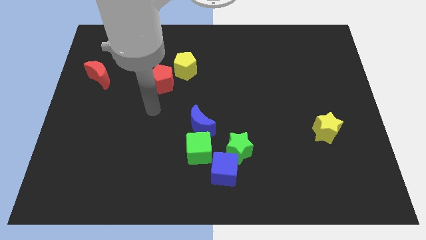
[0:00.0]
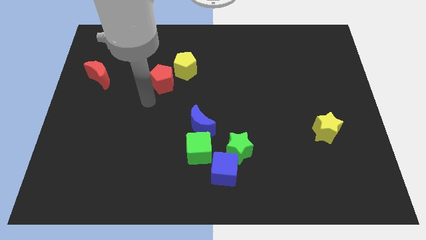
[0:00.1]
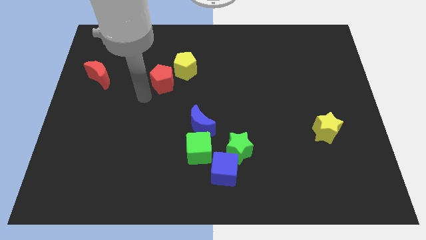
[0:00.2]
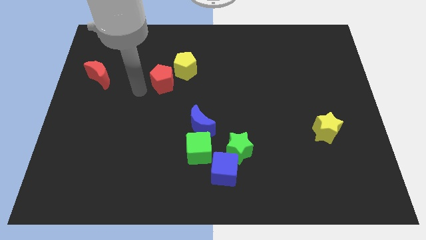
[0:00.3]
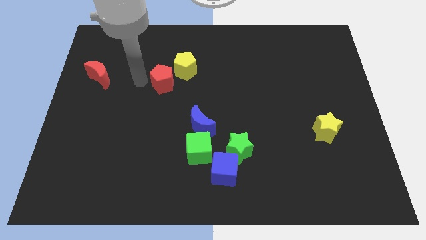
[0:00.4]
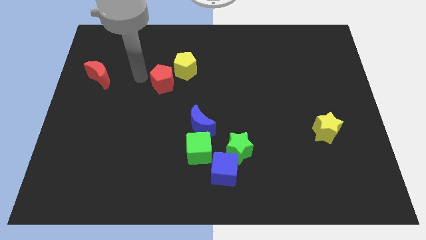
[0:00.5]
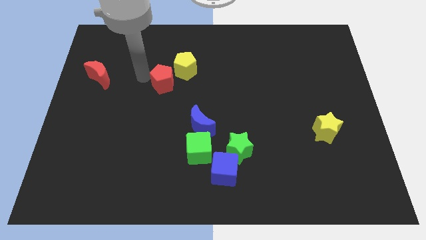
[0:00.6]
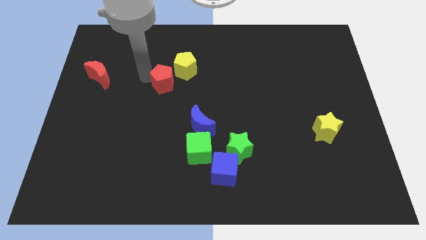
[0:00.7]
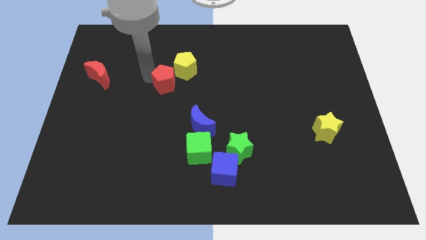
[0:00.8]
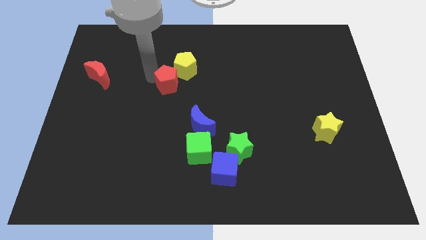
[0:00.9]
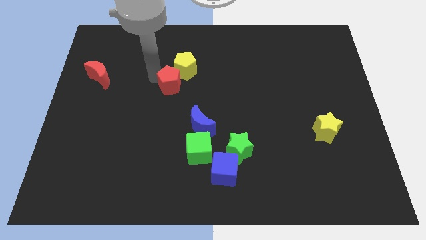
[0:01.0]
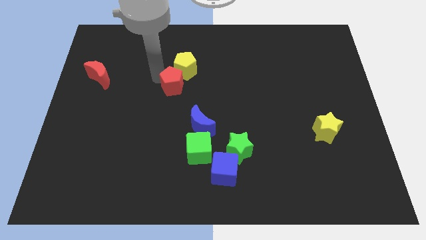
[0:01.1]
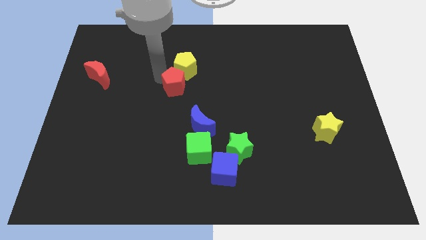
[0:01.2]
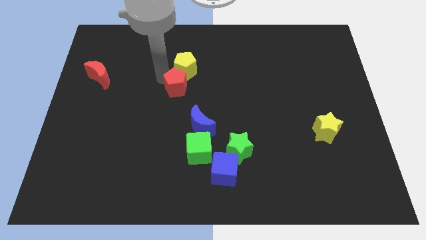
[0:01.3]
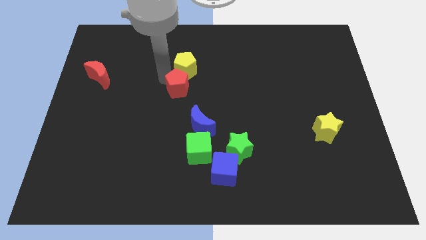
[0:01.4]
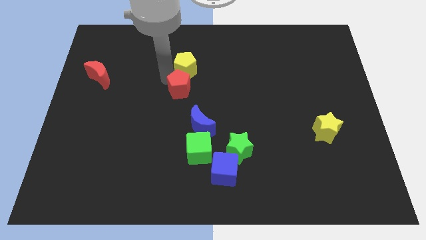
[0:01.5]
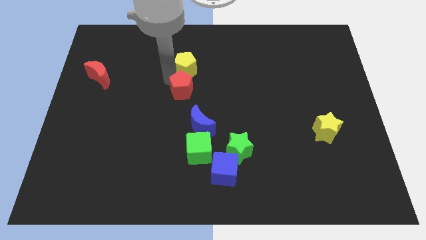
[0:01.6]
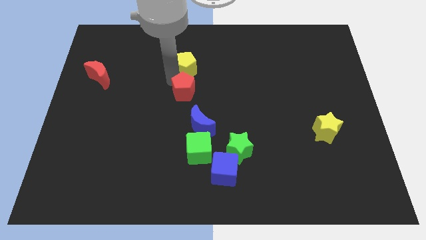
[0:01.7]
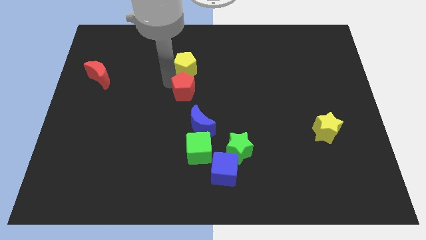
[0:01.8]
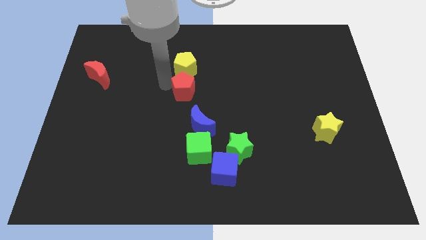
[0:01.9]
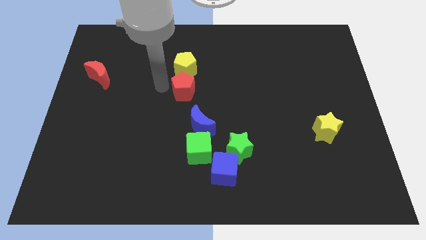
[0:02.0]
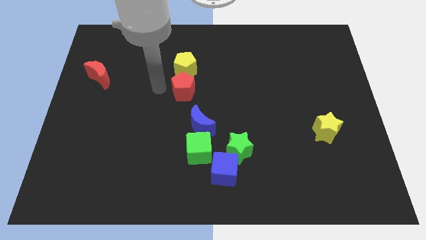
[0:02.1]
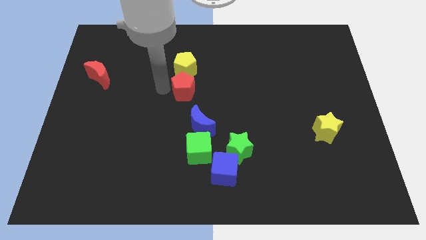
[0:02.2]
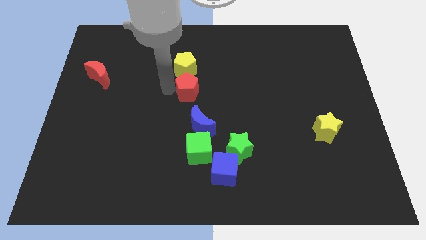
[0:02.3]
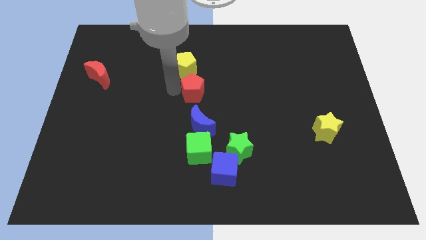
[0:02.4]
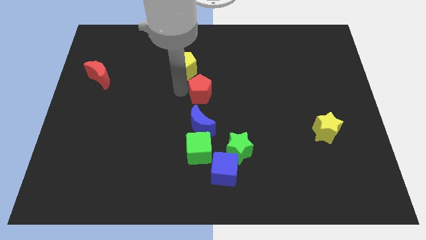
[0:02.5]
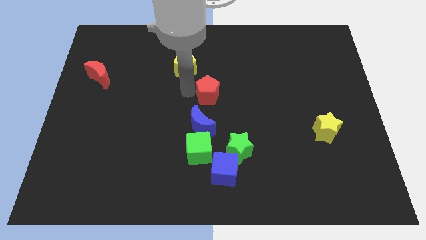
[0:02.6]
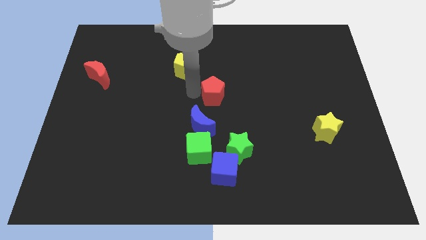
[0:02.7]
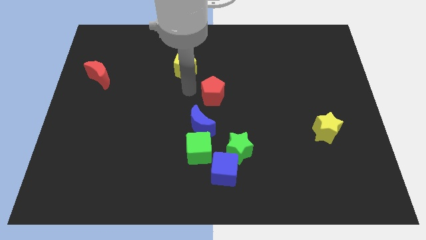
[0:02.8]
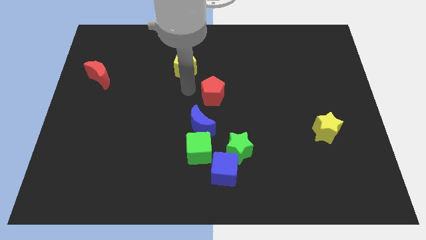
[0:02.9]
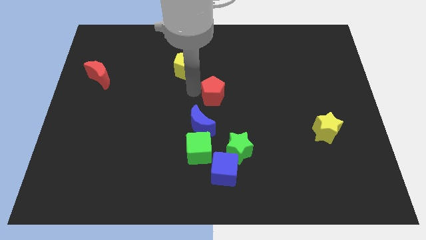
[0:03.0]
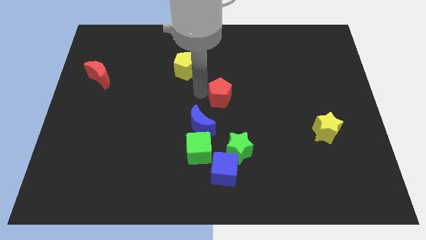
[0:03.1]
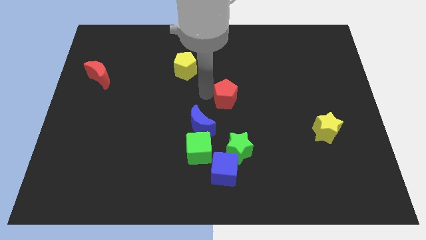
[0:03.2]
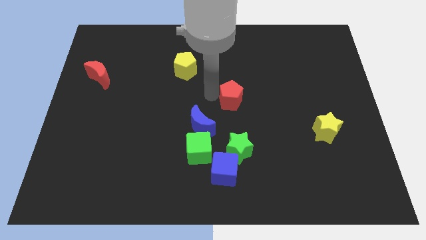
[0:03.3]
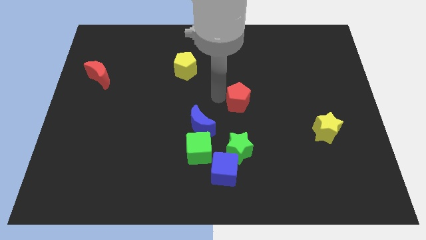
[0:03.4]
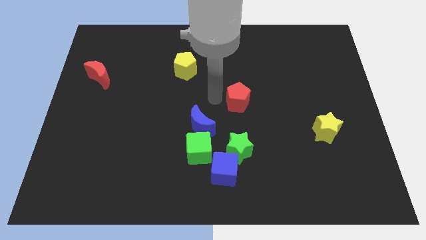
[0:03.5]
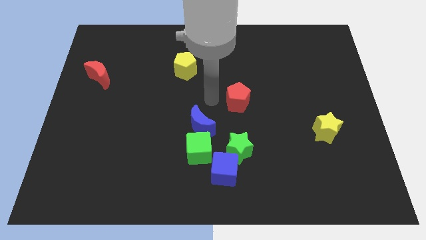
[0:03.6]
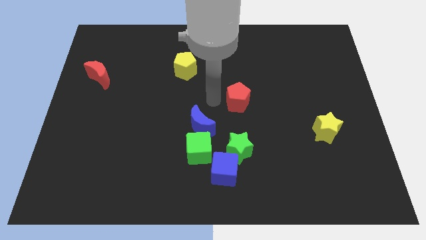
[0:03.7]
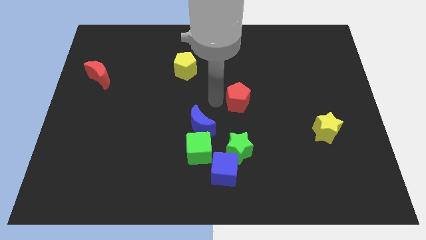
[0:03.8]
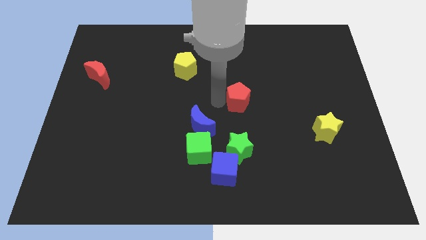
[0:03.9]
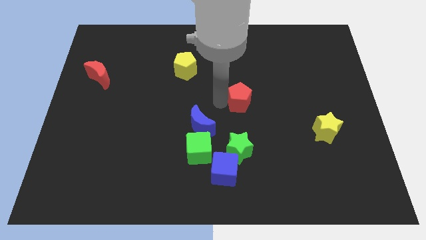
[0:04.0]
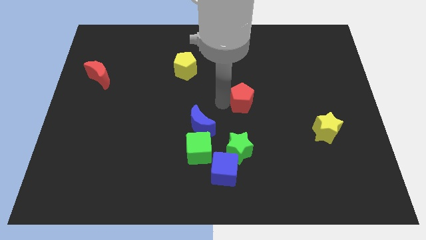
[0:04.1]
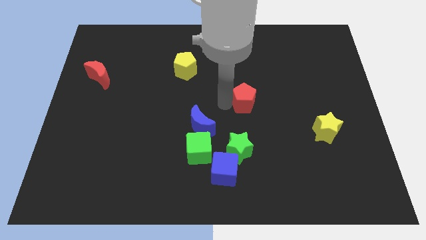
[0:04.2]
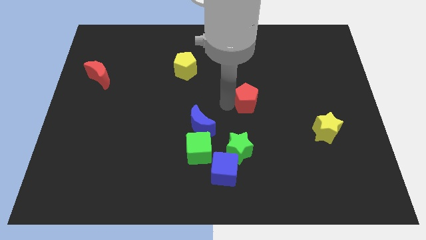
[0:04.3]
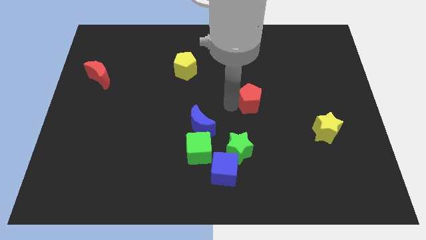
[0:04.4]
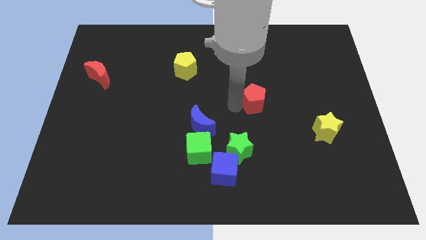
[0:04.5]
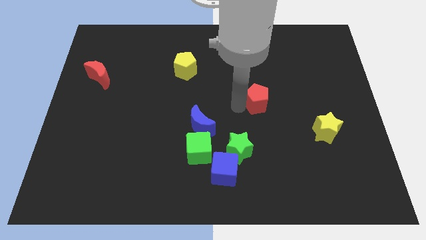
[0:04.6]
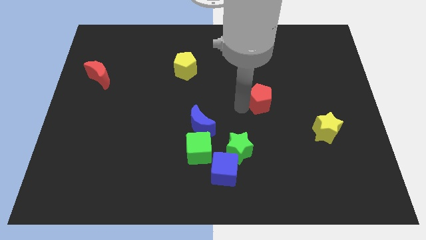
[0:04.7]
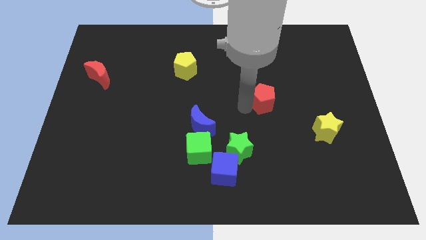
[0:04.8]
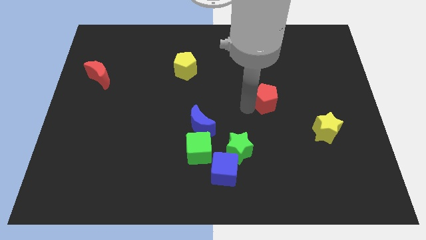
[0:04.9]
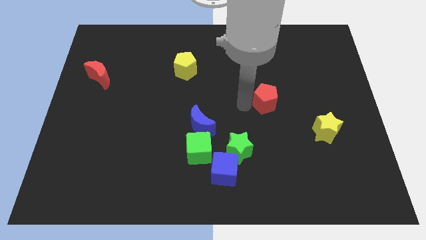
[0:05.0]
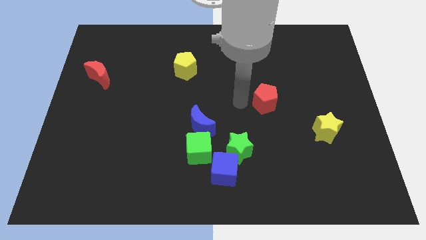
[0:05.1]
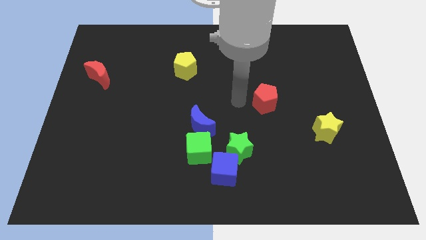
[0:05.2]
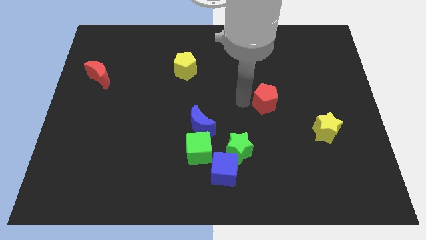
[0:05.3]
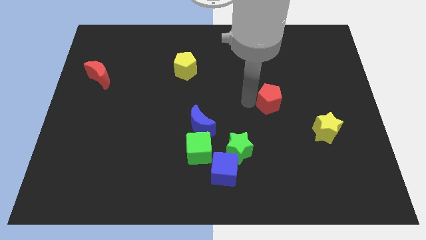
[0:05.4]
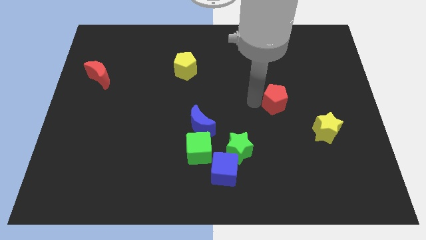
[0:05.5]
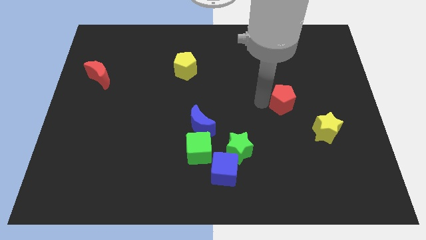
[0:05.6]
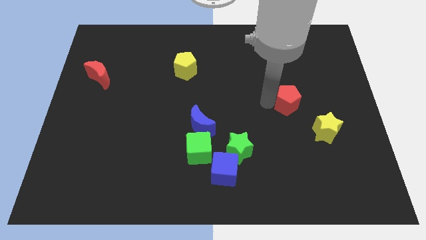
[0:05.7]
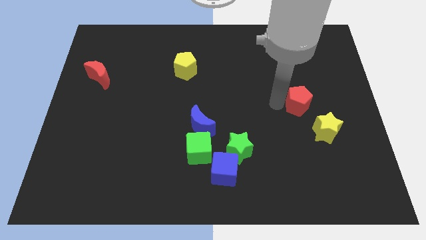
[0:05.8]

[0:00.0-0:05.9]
push the red pentagon above the yellow star

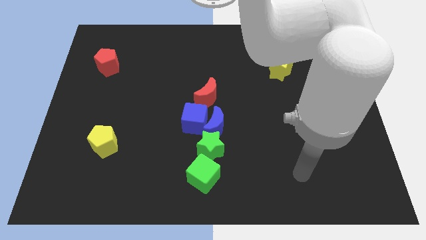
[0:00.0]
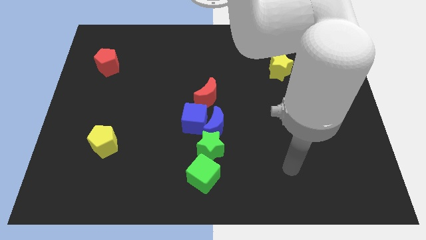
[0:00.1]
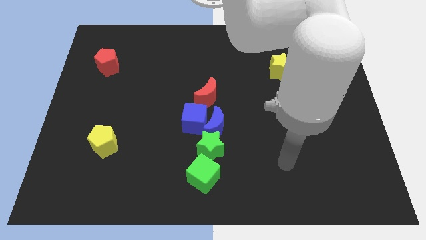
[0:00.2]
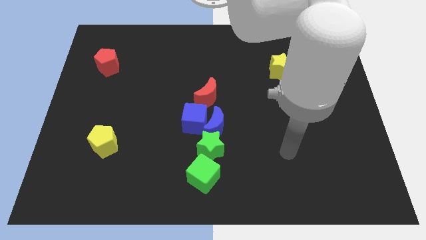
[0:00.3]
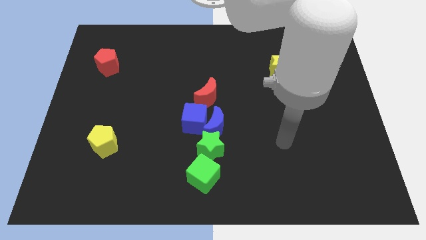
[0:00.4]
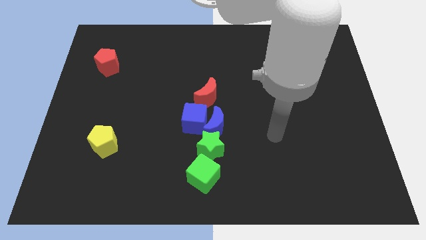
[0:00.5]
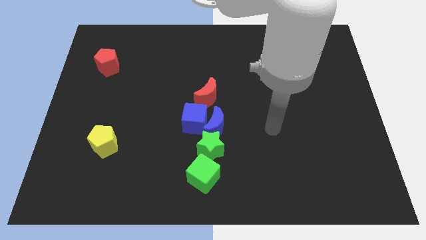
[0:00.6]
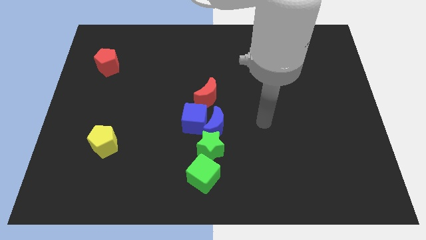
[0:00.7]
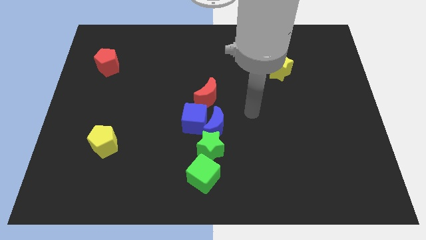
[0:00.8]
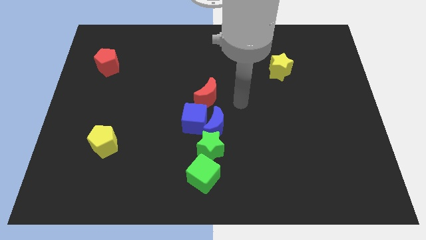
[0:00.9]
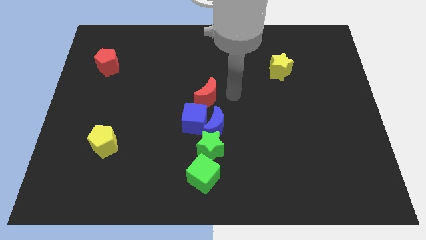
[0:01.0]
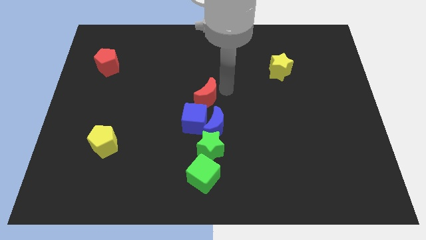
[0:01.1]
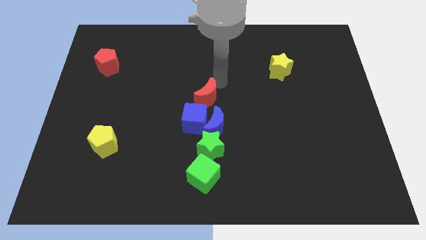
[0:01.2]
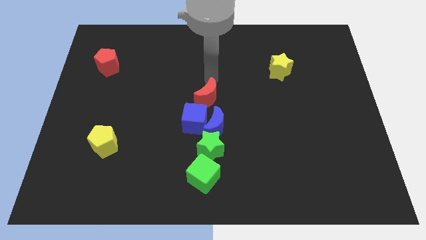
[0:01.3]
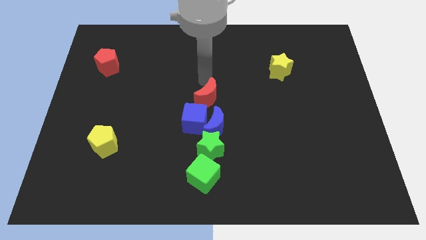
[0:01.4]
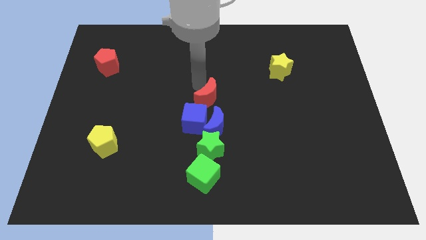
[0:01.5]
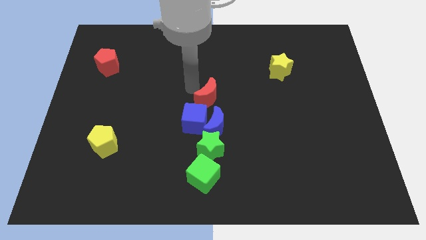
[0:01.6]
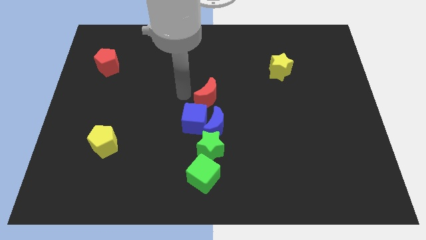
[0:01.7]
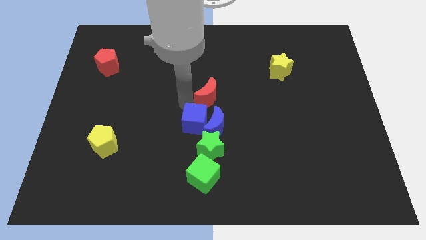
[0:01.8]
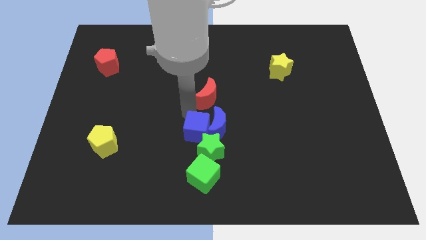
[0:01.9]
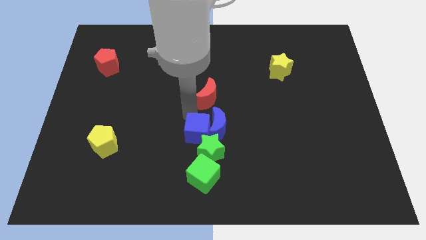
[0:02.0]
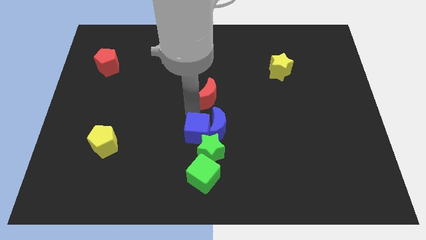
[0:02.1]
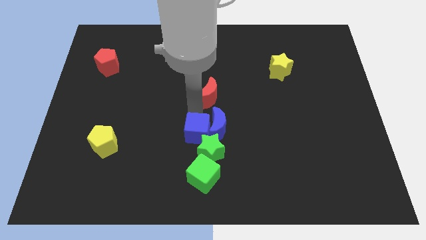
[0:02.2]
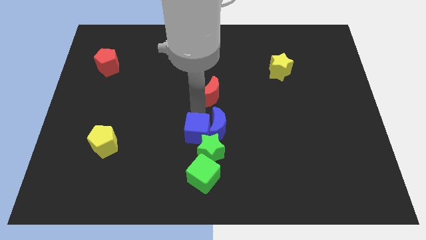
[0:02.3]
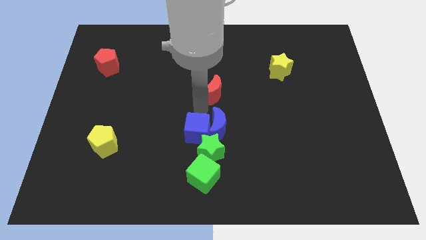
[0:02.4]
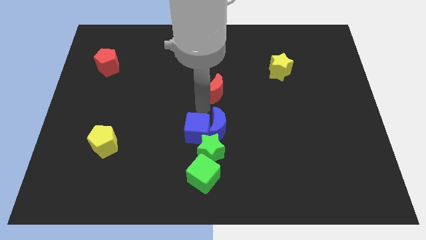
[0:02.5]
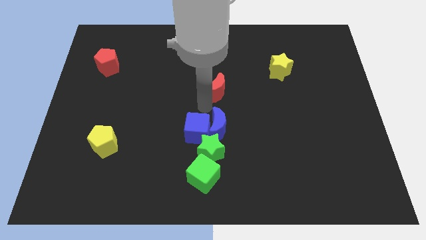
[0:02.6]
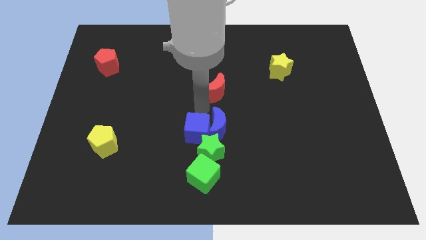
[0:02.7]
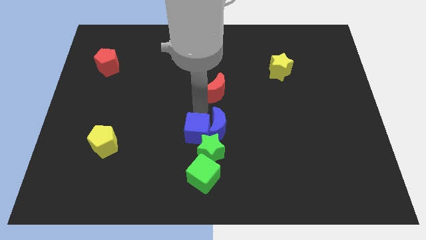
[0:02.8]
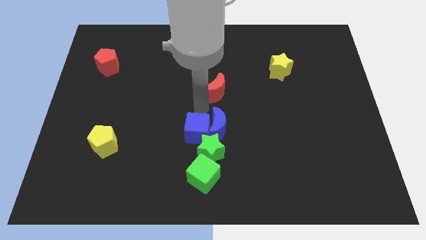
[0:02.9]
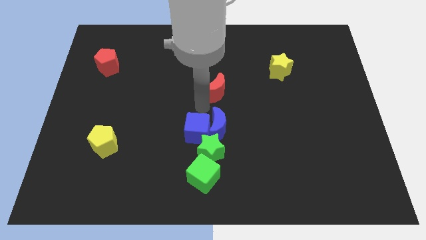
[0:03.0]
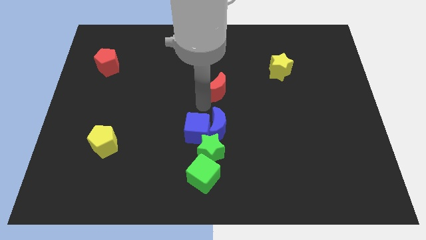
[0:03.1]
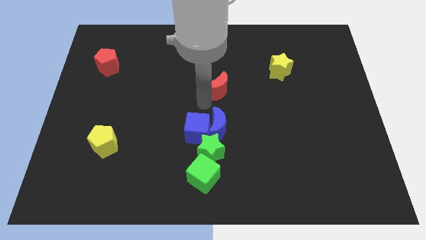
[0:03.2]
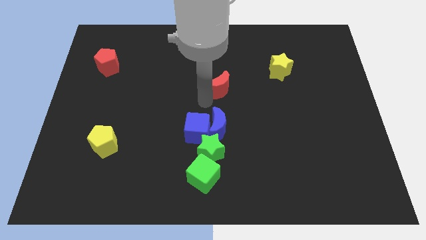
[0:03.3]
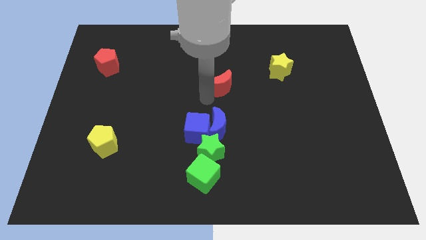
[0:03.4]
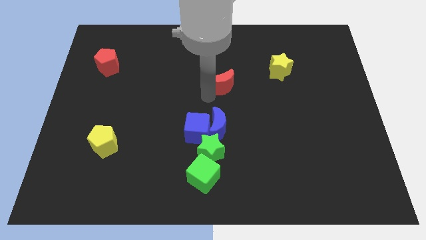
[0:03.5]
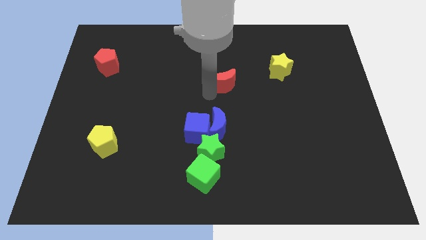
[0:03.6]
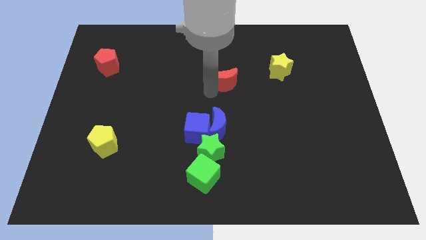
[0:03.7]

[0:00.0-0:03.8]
move the red moon just left of the yellow star
